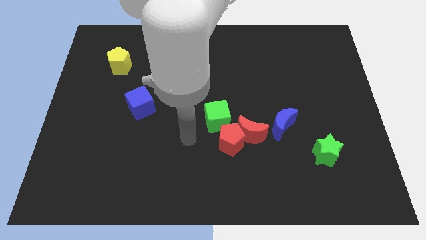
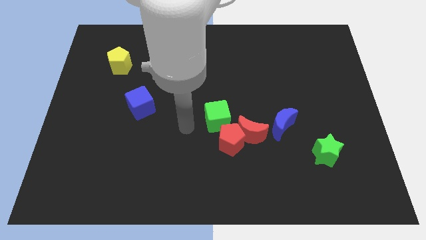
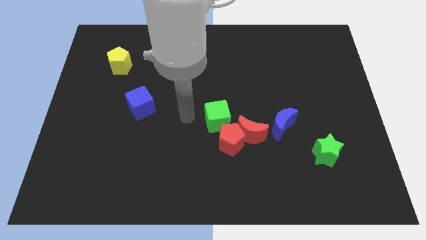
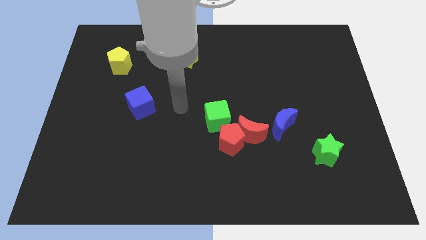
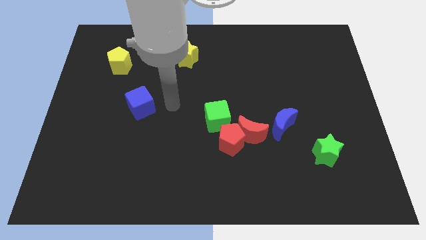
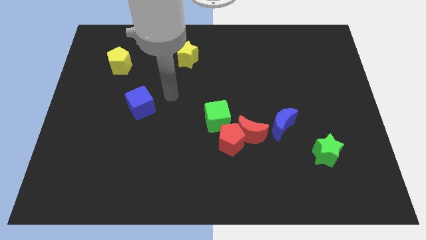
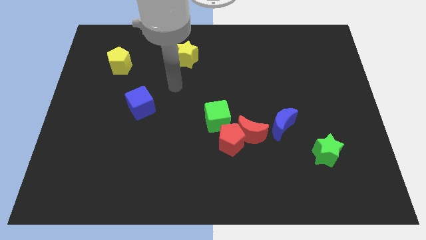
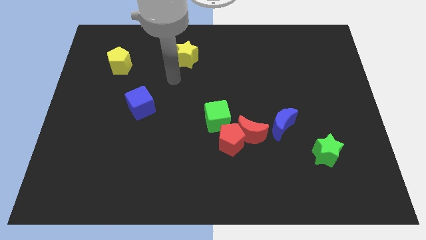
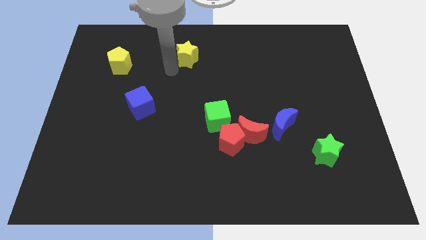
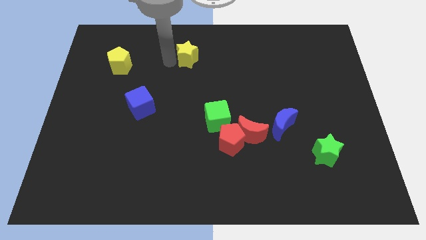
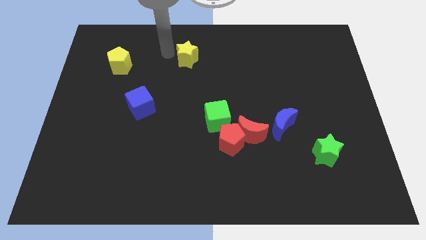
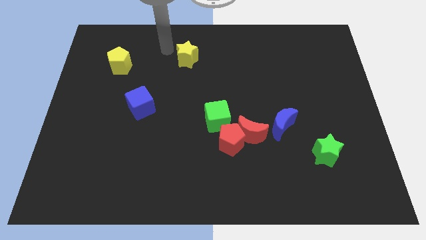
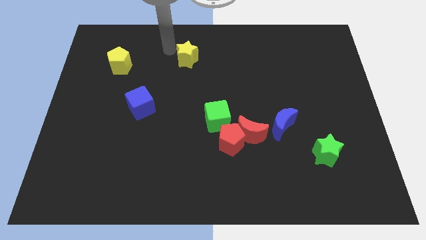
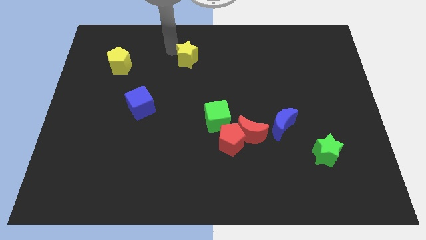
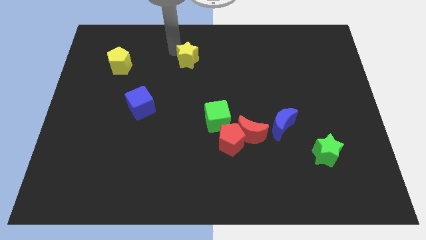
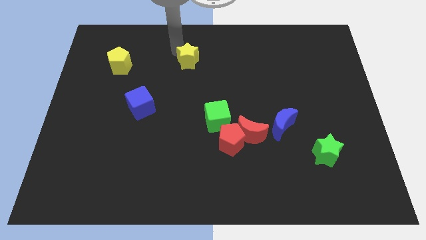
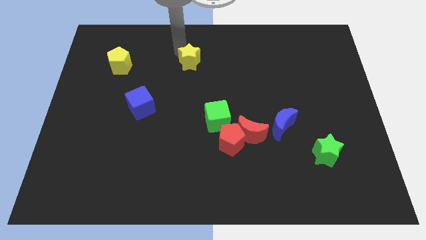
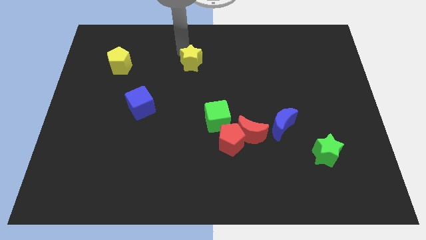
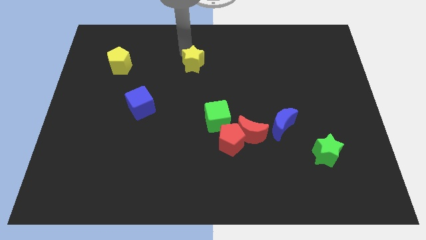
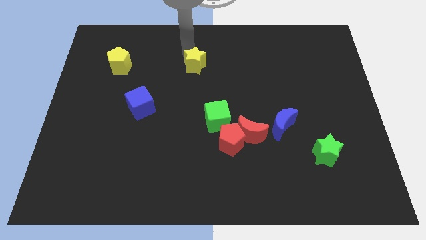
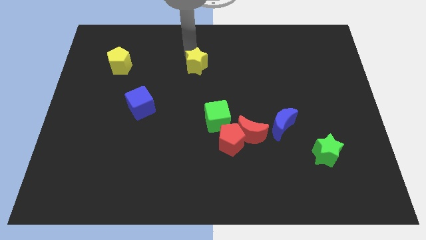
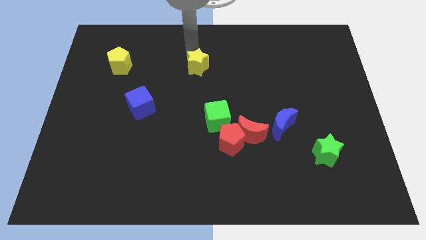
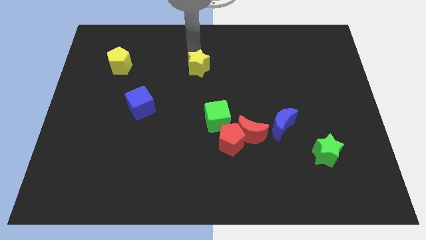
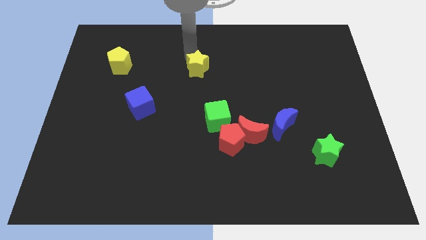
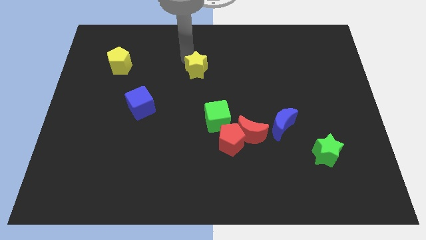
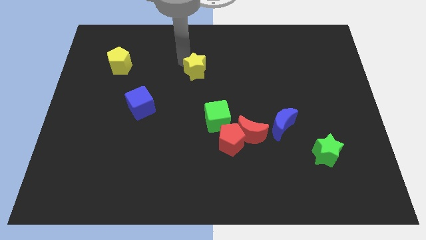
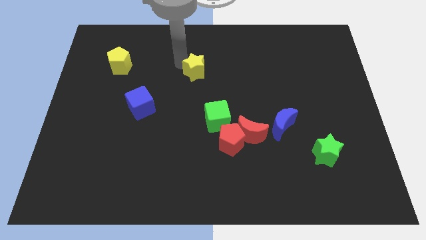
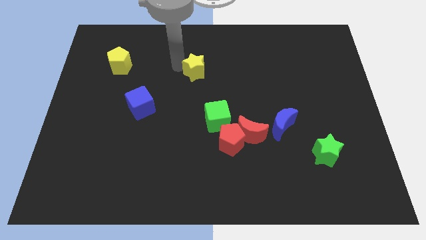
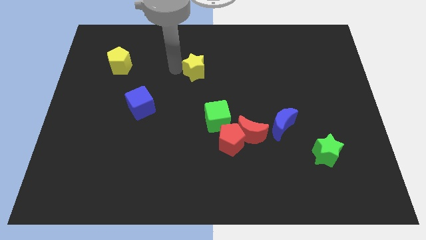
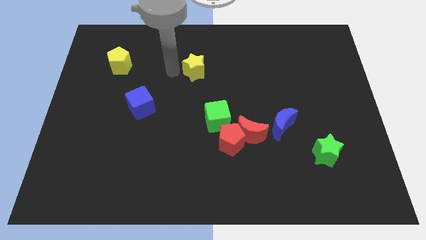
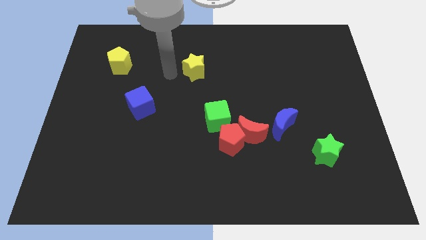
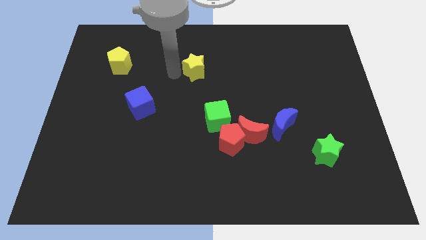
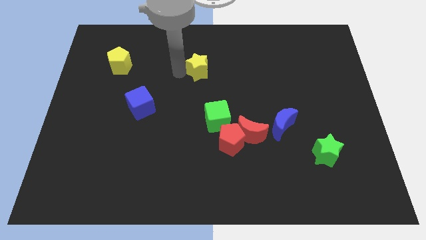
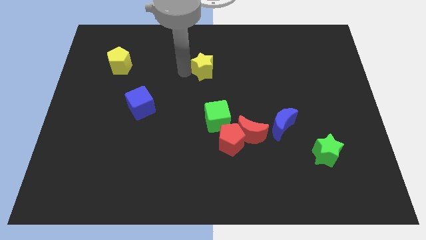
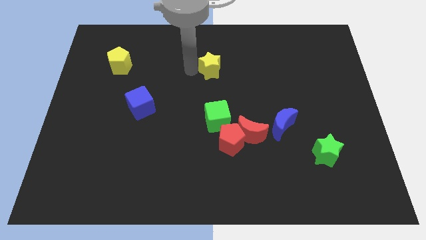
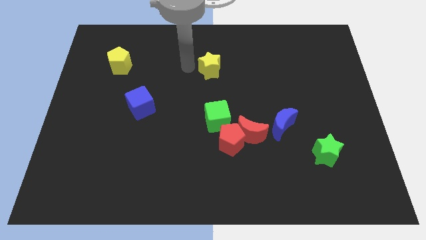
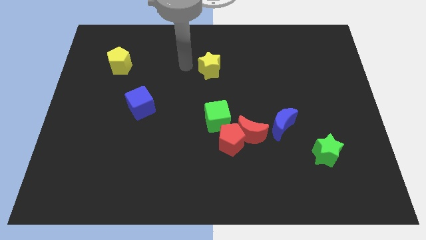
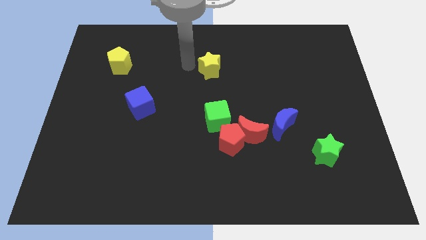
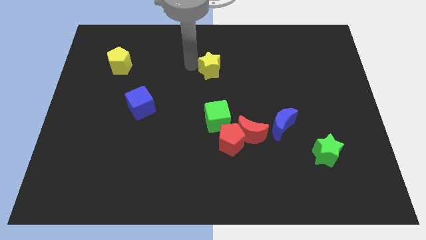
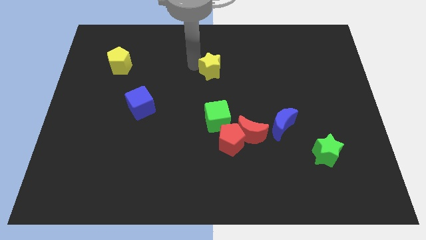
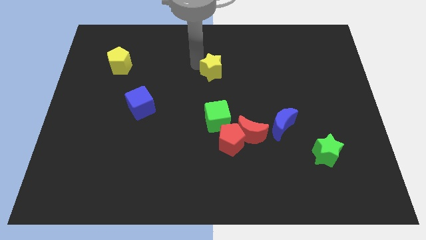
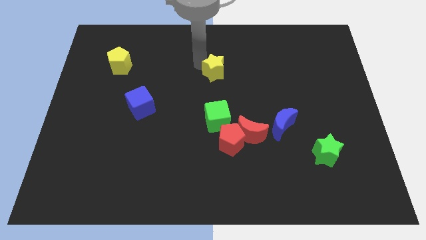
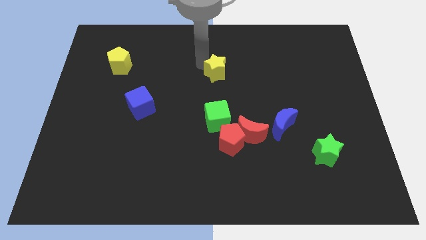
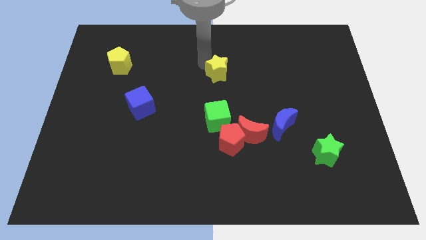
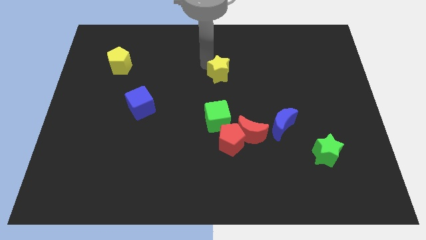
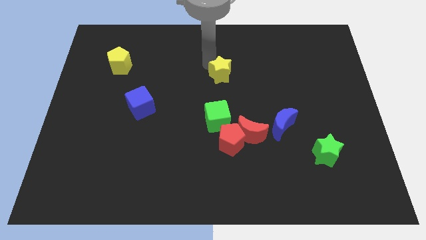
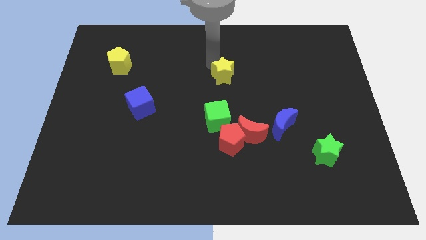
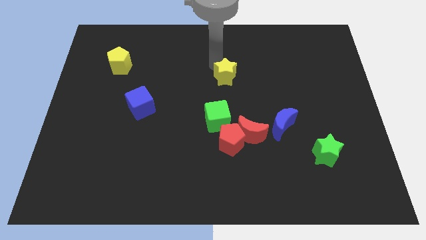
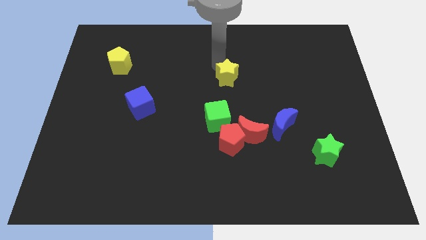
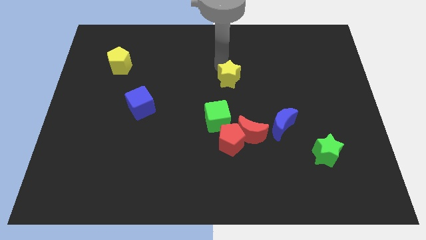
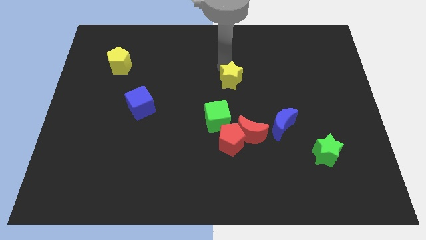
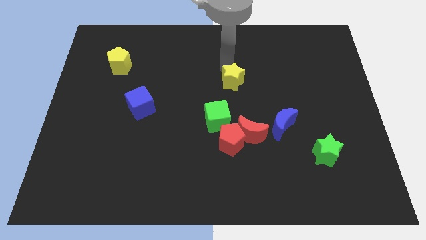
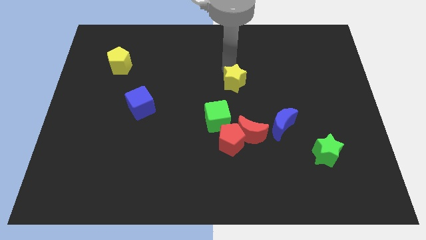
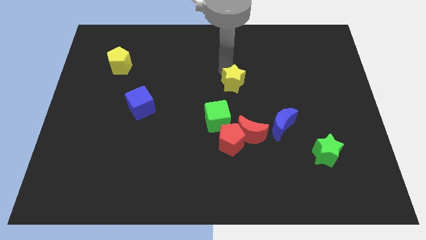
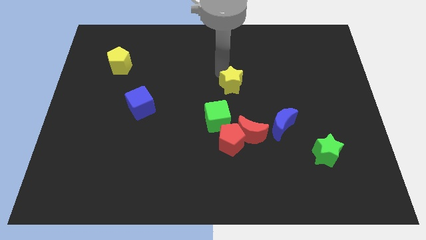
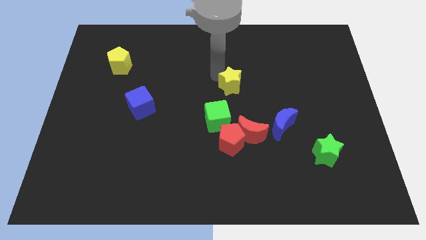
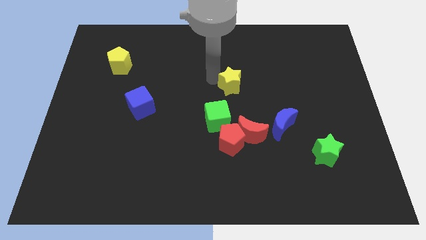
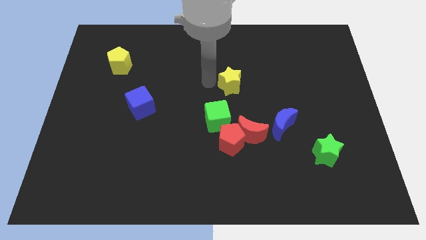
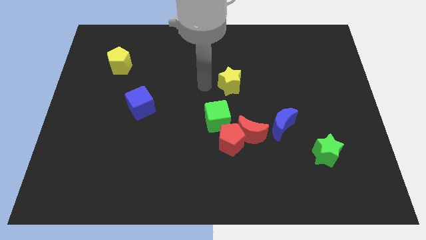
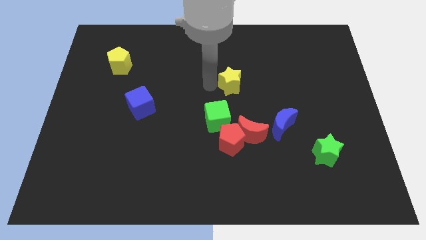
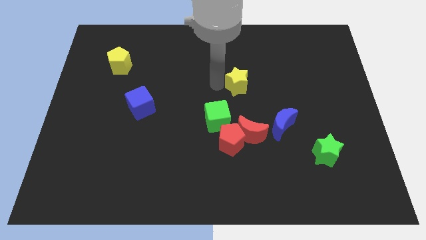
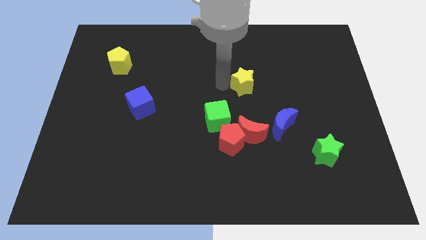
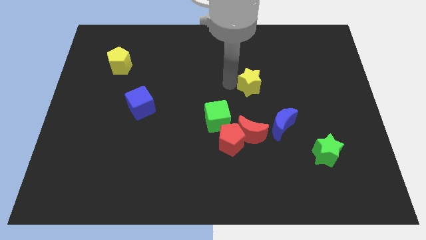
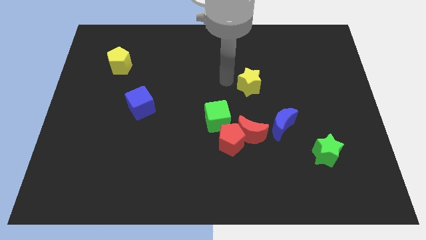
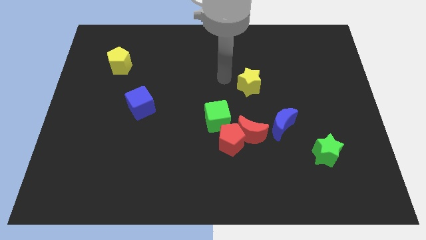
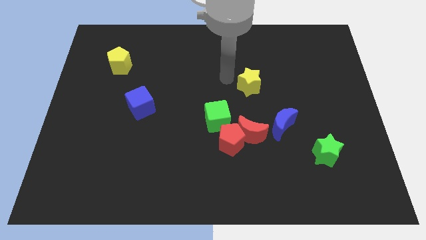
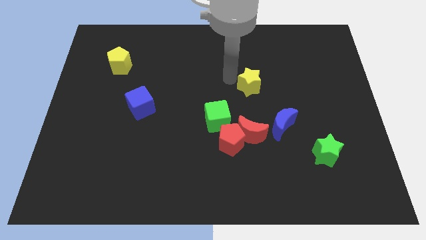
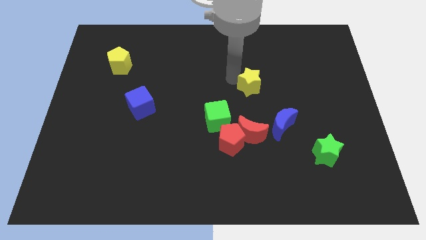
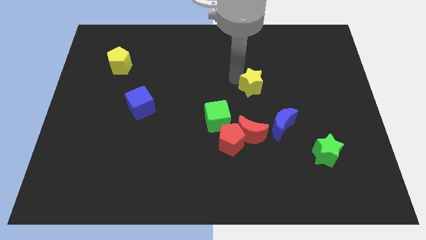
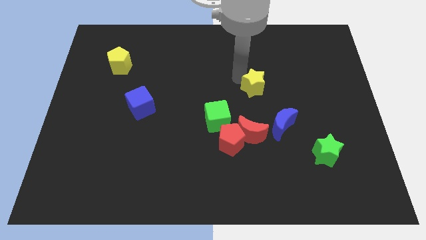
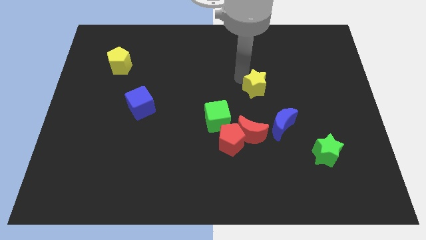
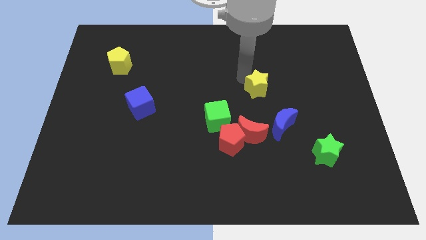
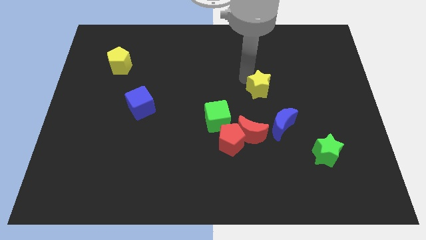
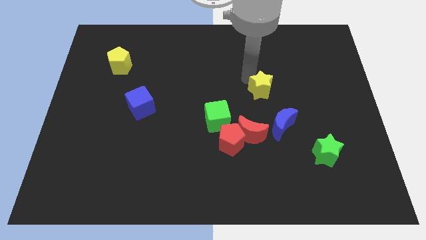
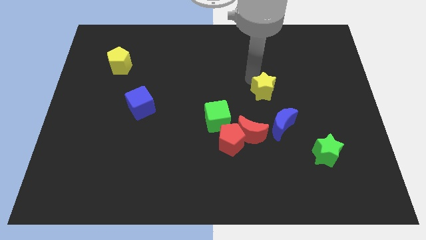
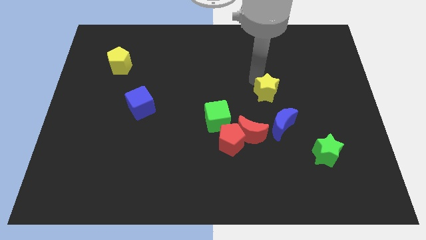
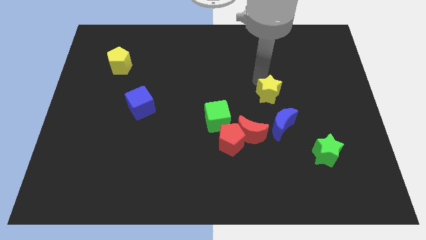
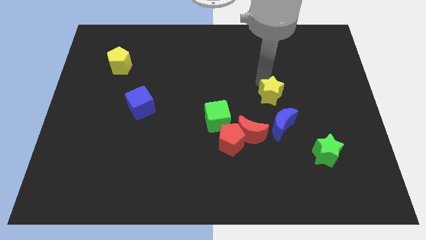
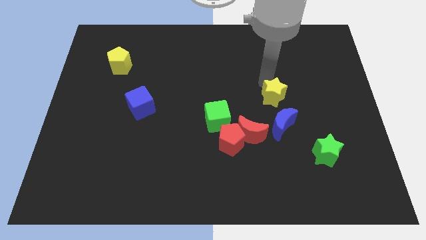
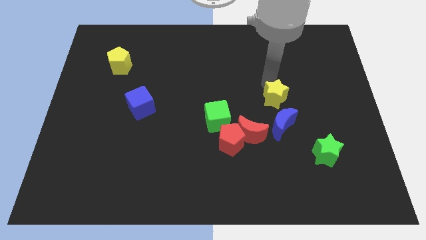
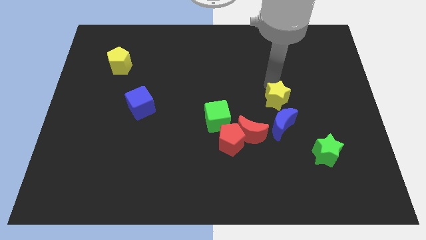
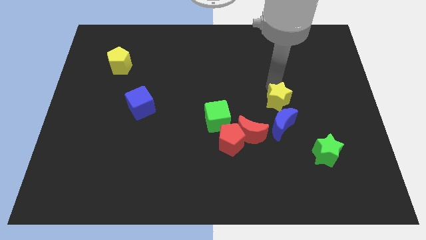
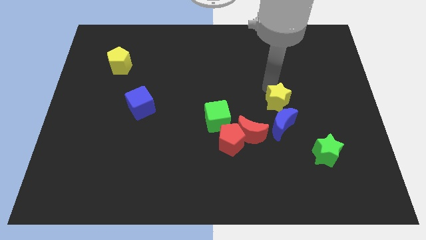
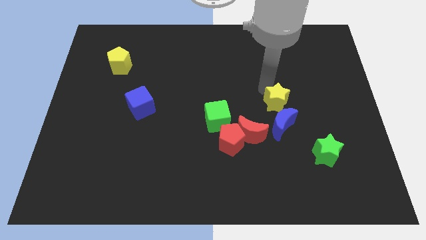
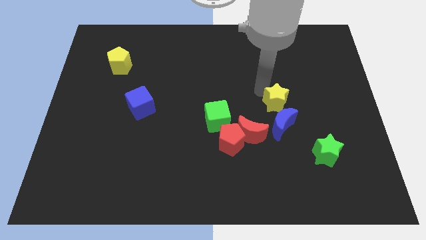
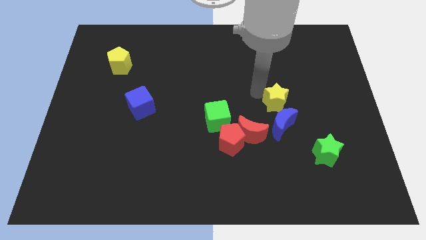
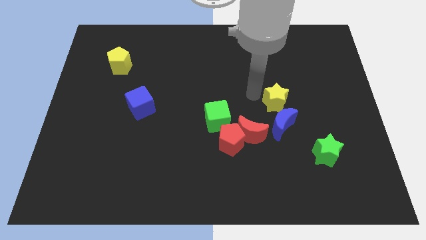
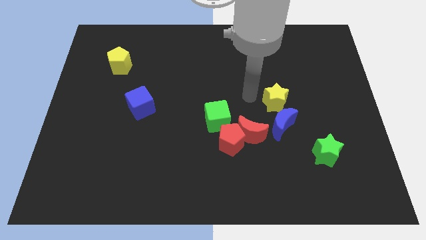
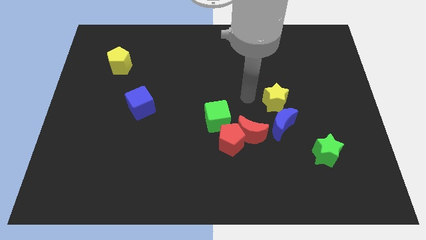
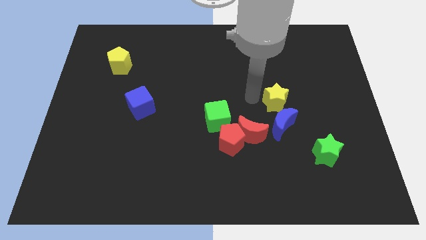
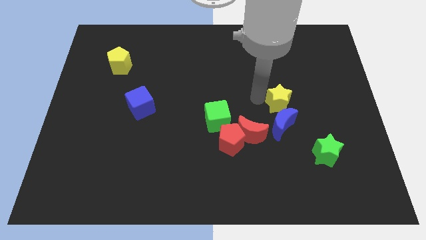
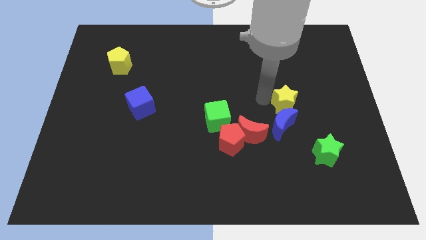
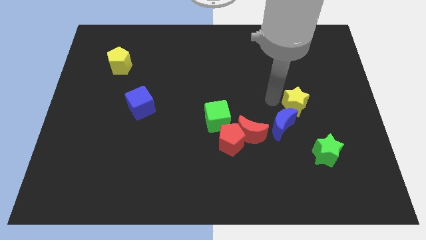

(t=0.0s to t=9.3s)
put the yellow star to the top of the green star
